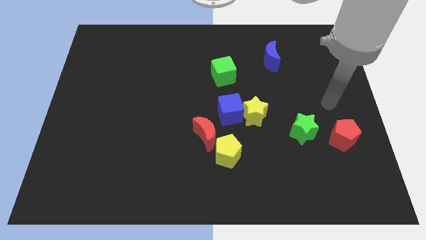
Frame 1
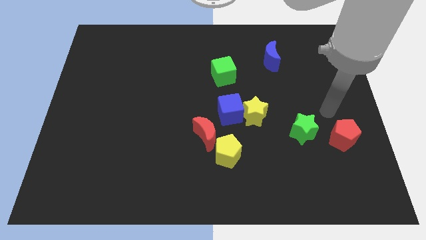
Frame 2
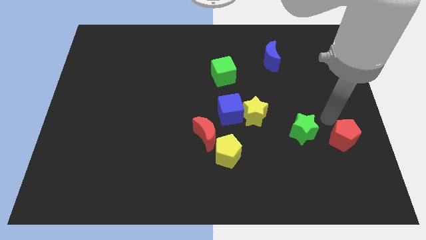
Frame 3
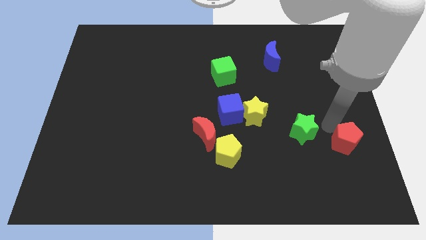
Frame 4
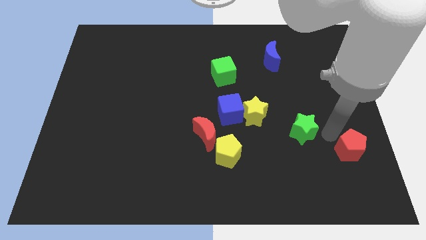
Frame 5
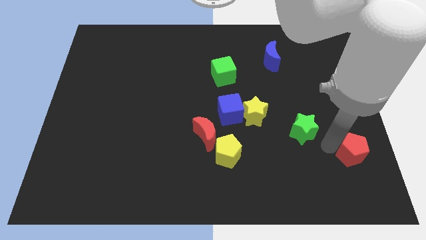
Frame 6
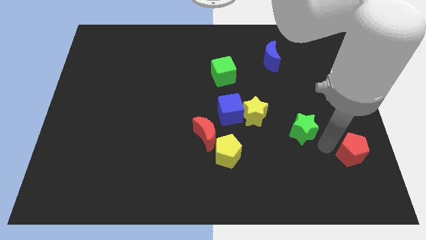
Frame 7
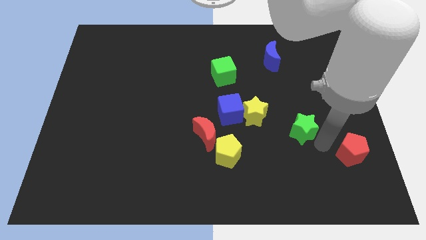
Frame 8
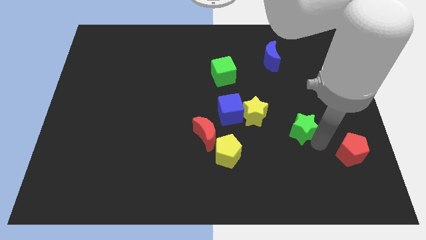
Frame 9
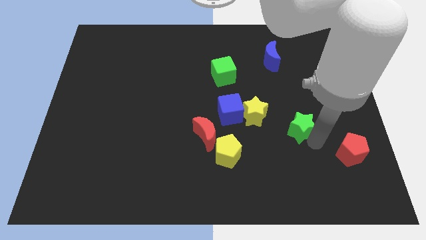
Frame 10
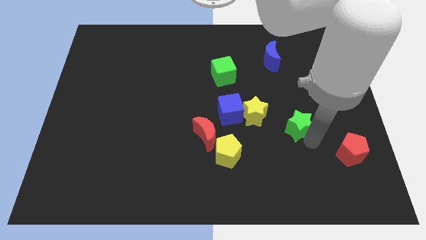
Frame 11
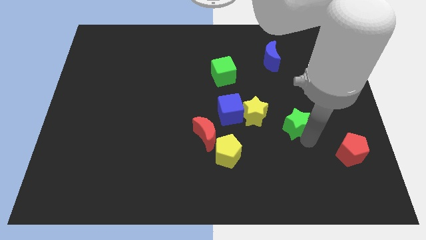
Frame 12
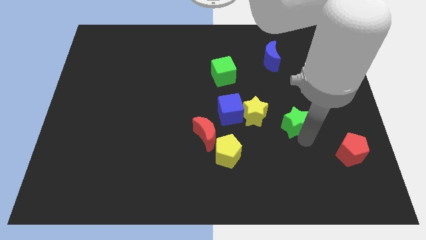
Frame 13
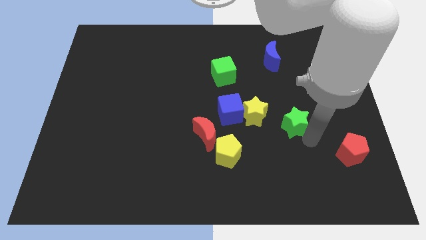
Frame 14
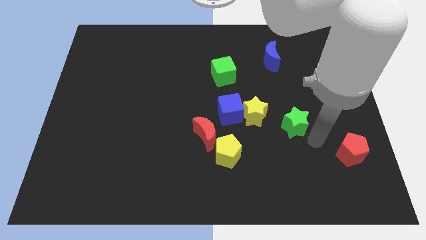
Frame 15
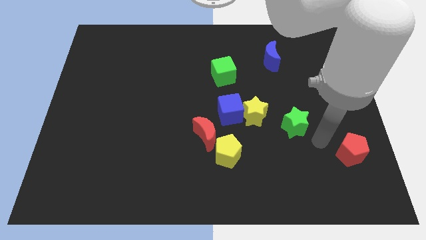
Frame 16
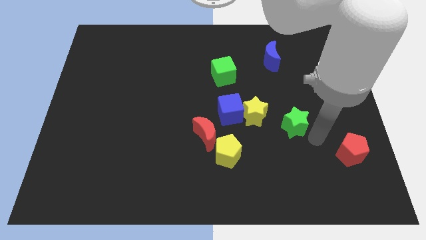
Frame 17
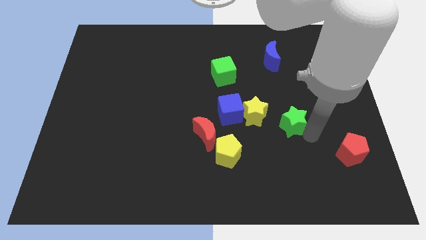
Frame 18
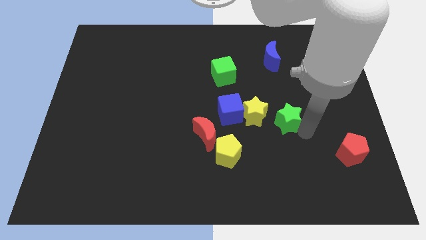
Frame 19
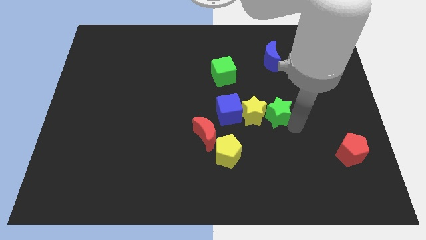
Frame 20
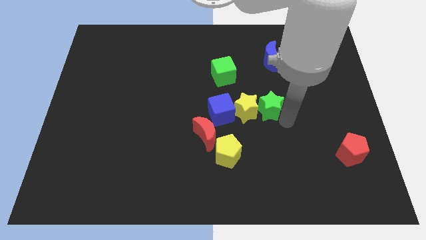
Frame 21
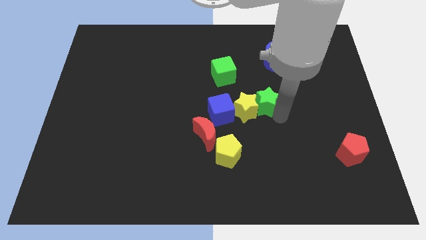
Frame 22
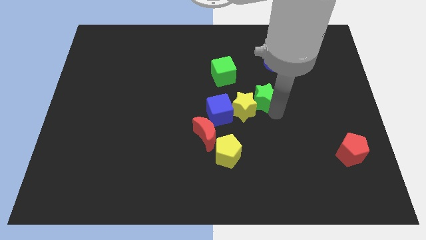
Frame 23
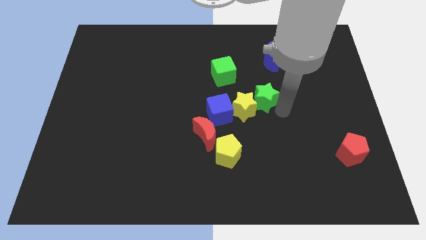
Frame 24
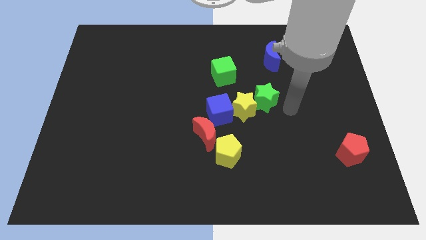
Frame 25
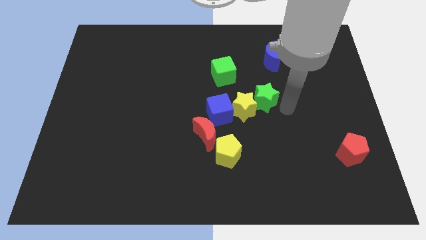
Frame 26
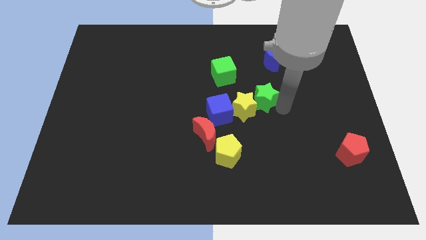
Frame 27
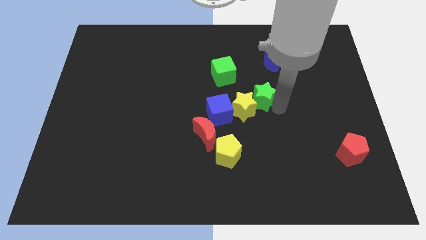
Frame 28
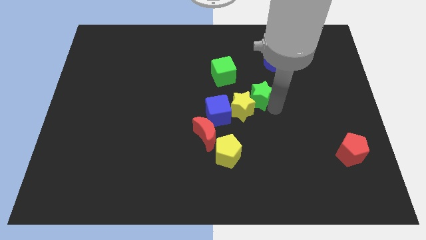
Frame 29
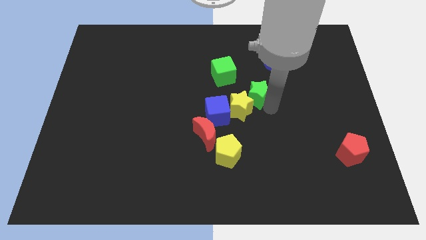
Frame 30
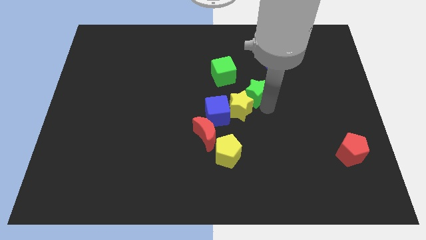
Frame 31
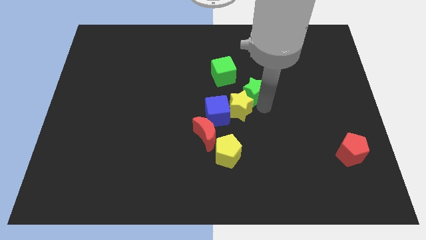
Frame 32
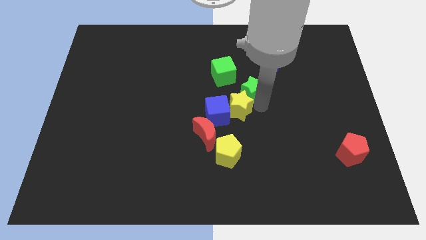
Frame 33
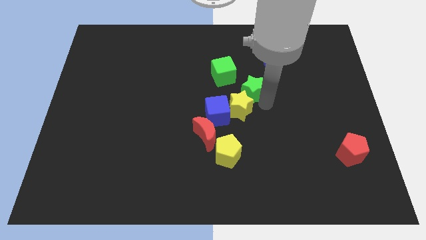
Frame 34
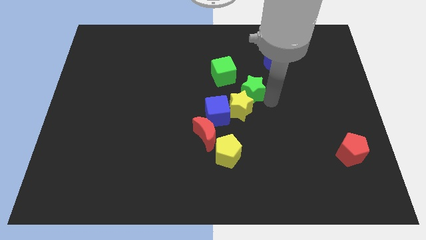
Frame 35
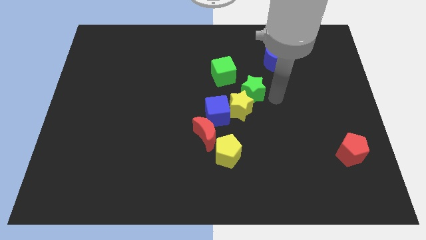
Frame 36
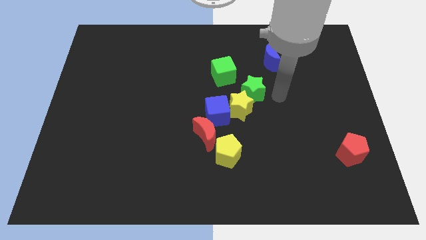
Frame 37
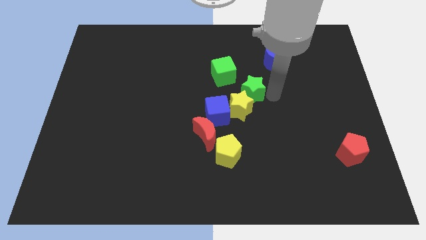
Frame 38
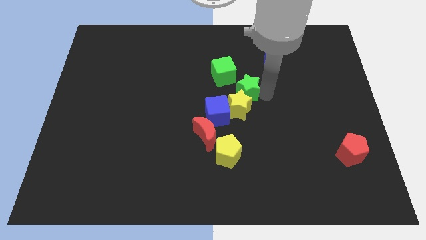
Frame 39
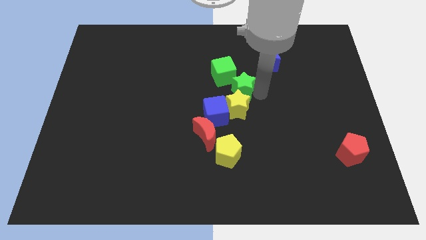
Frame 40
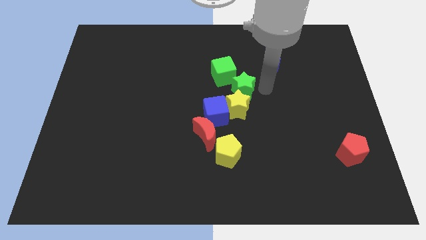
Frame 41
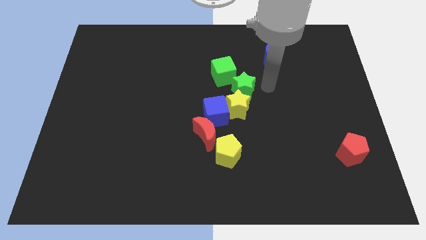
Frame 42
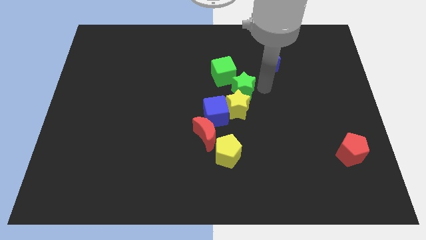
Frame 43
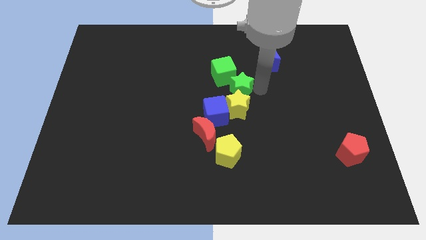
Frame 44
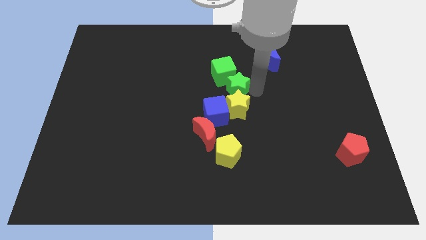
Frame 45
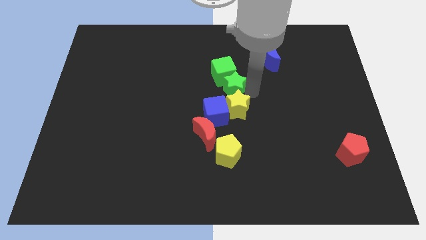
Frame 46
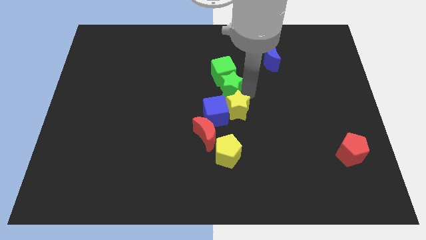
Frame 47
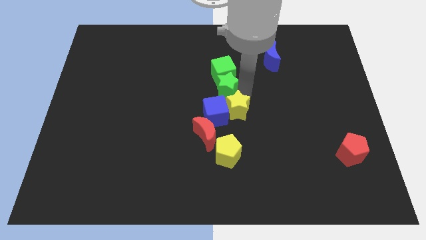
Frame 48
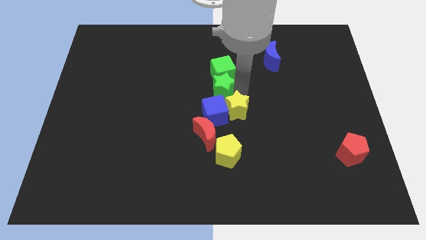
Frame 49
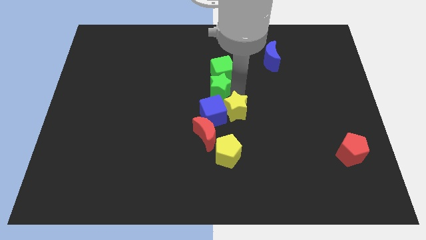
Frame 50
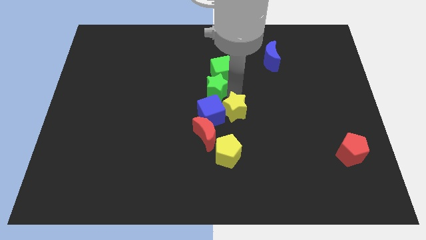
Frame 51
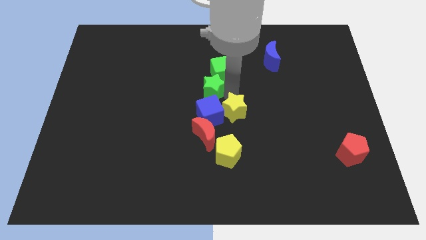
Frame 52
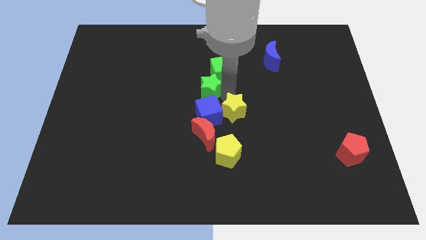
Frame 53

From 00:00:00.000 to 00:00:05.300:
put the green star to the top left side of the blue cube

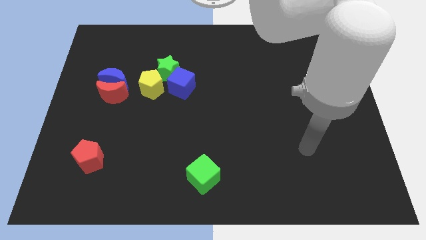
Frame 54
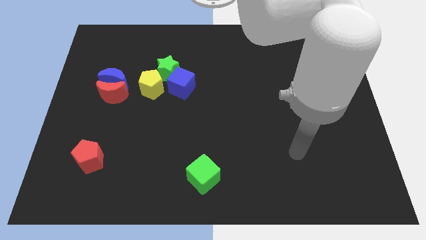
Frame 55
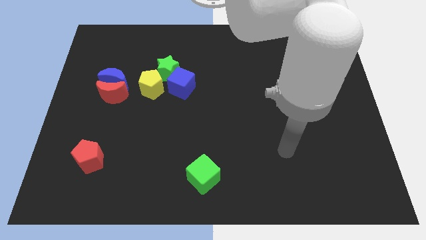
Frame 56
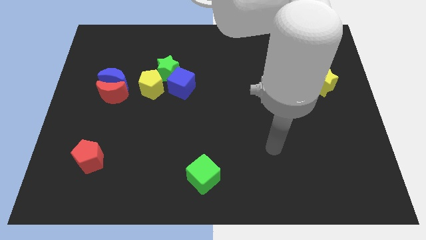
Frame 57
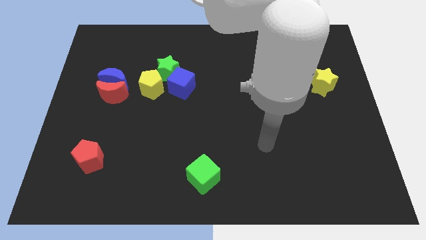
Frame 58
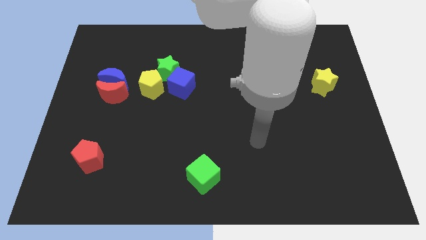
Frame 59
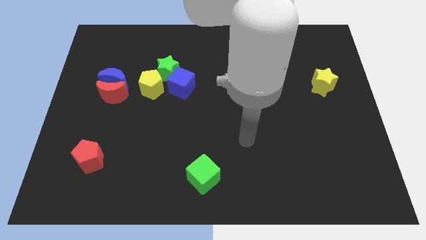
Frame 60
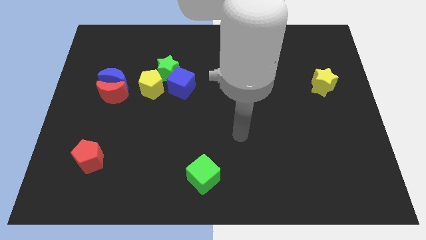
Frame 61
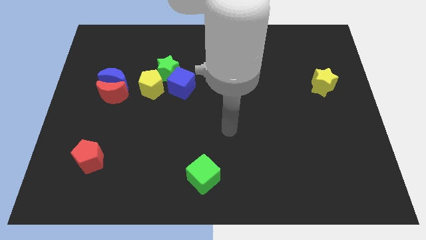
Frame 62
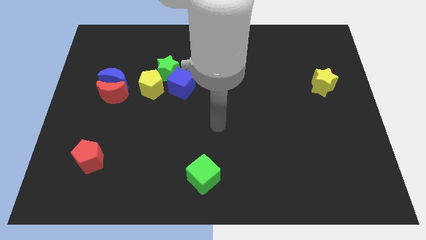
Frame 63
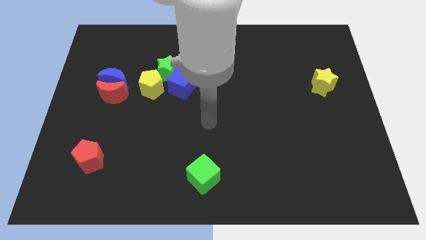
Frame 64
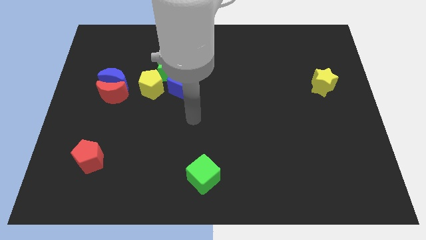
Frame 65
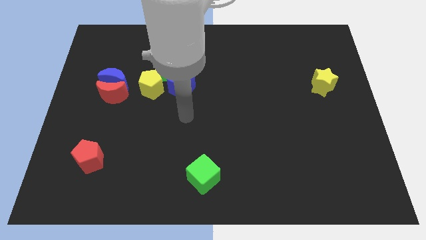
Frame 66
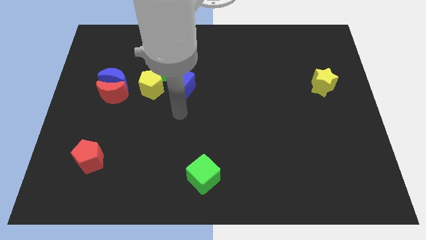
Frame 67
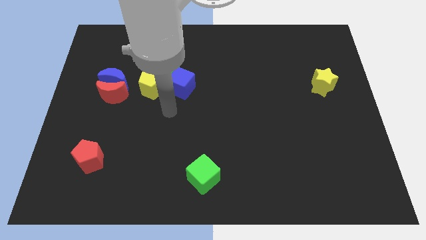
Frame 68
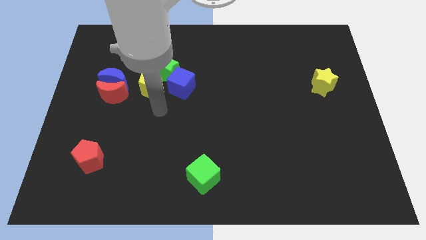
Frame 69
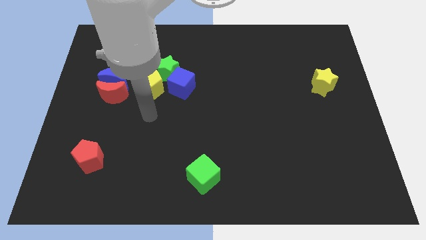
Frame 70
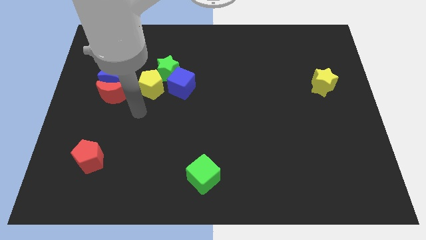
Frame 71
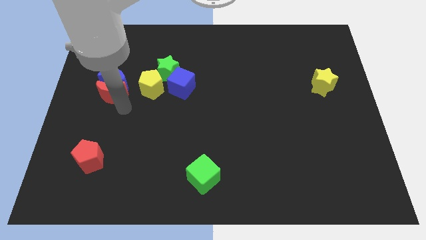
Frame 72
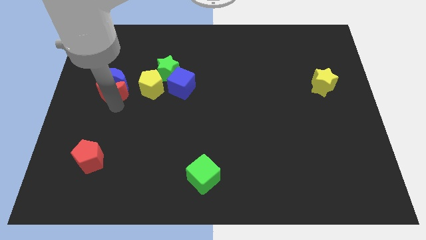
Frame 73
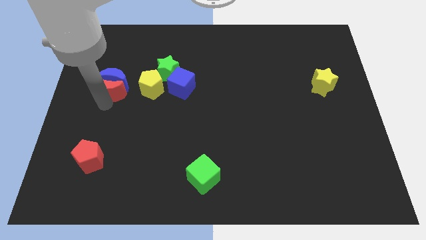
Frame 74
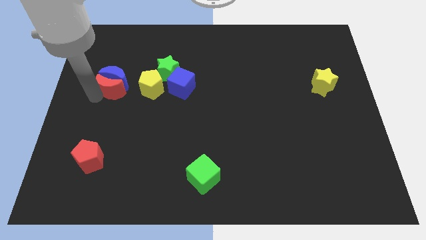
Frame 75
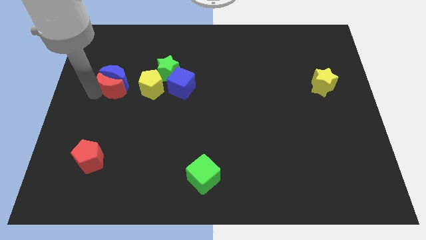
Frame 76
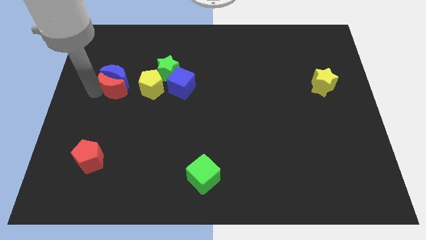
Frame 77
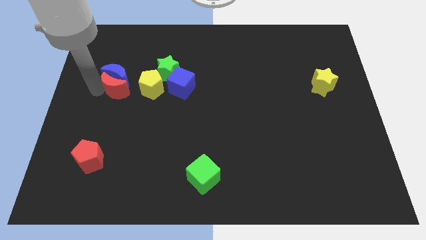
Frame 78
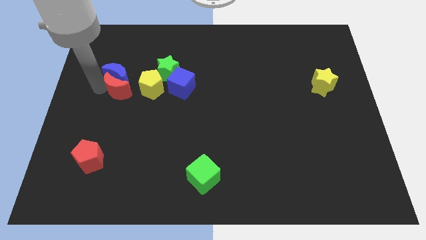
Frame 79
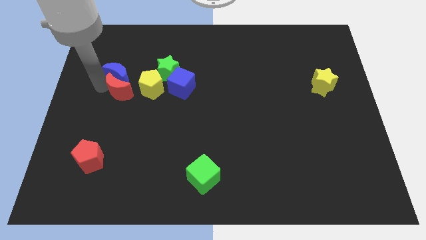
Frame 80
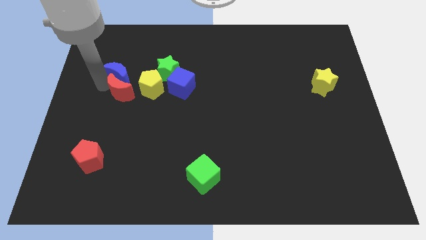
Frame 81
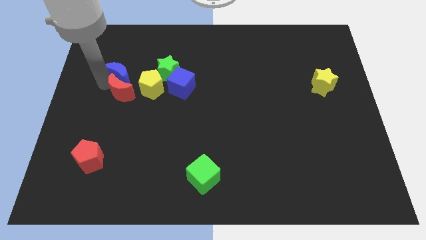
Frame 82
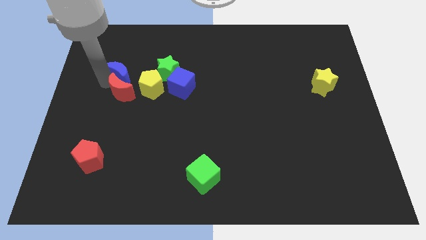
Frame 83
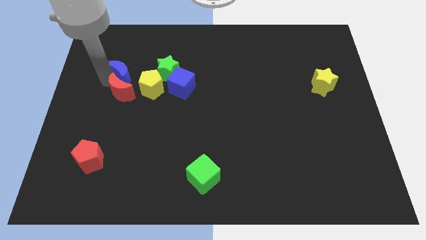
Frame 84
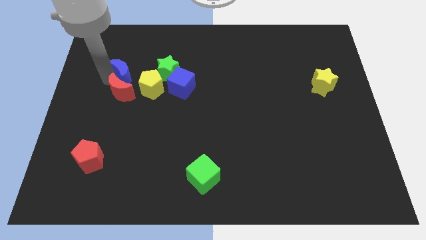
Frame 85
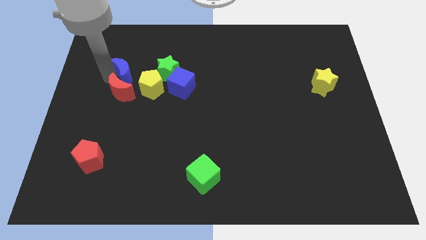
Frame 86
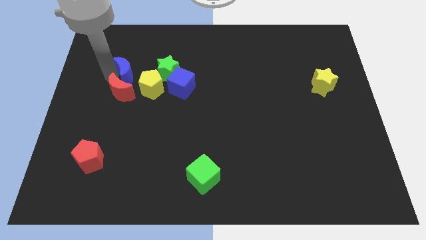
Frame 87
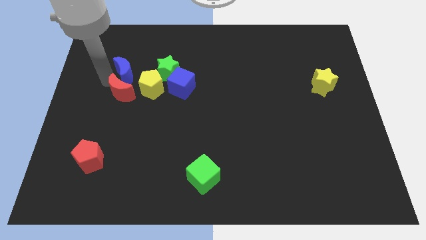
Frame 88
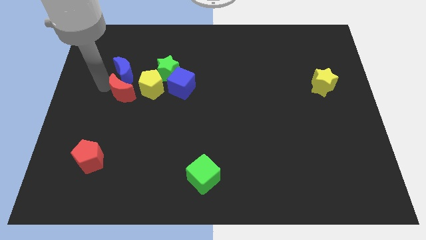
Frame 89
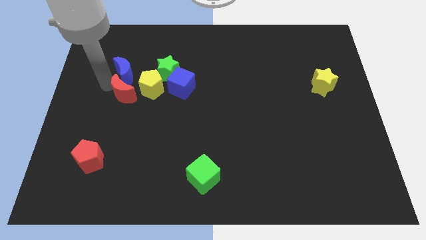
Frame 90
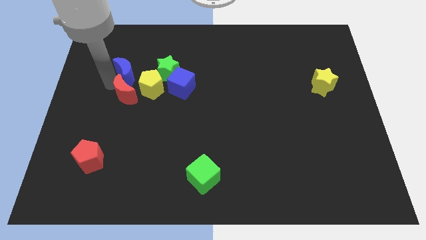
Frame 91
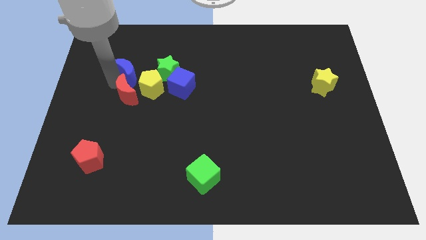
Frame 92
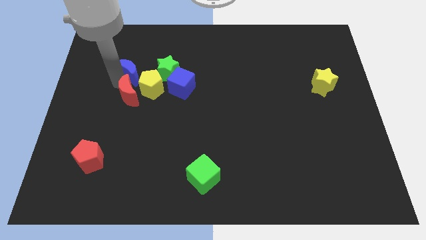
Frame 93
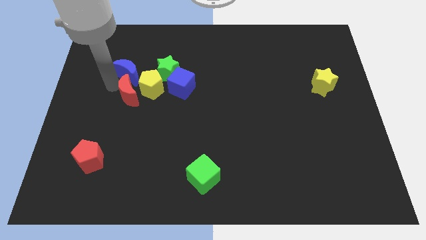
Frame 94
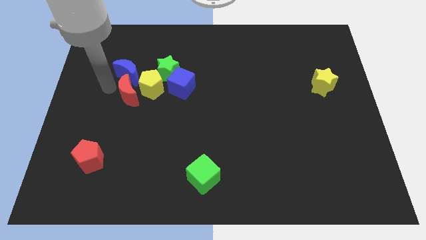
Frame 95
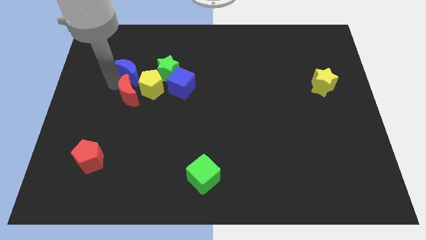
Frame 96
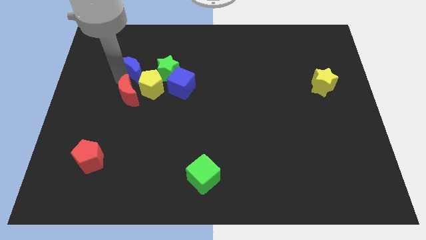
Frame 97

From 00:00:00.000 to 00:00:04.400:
slide the blue moon above the yellow pentagon
